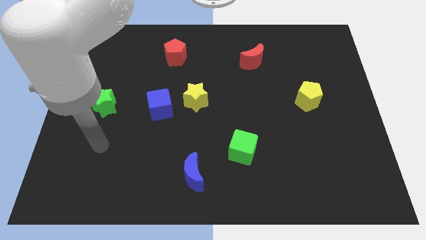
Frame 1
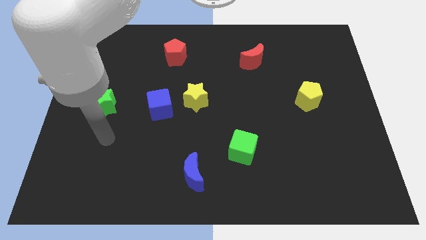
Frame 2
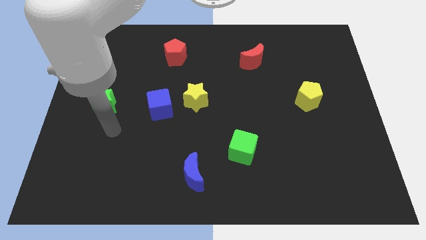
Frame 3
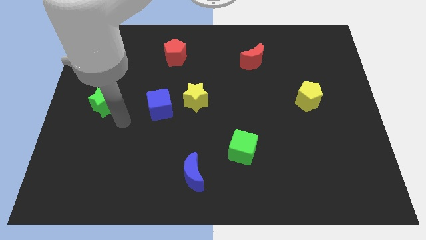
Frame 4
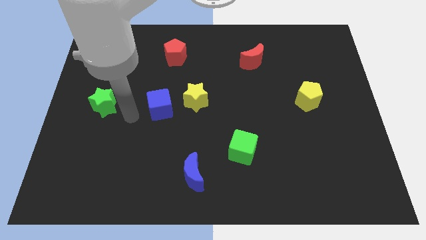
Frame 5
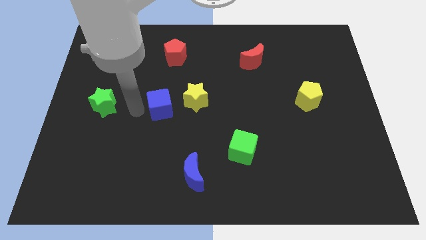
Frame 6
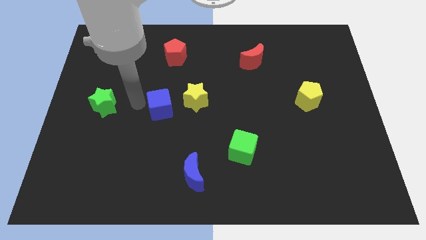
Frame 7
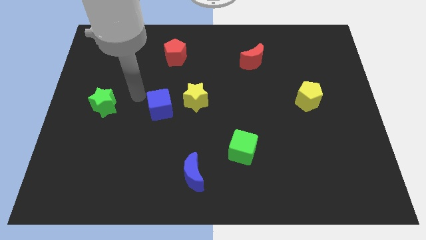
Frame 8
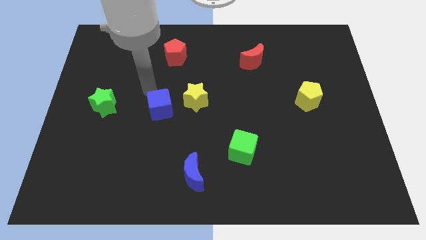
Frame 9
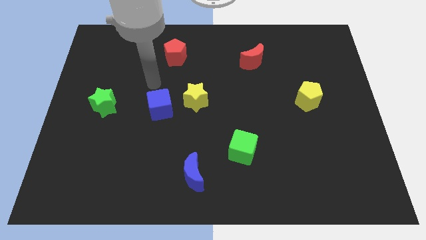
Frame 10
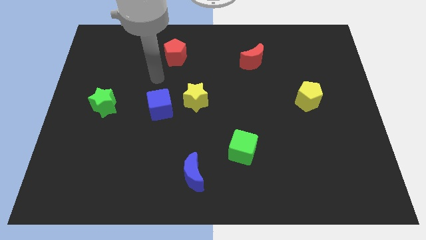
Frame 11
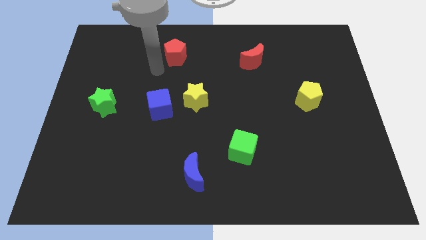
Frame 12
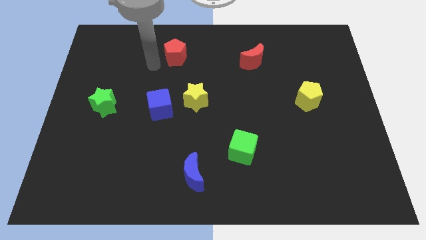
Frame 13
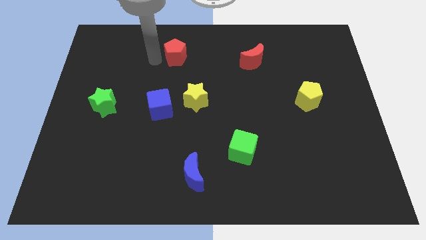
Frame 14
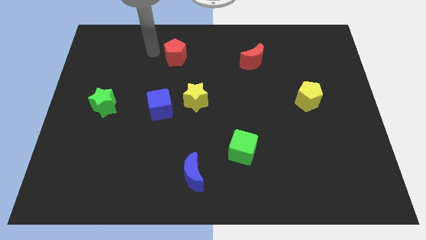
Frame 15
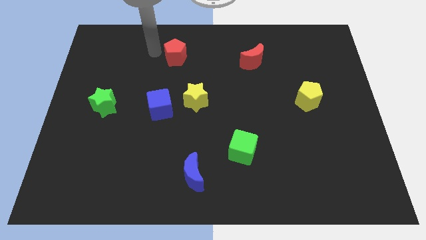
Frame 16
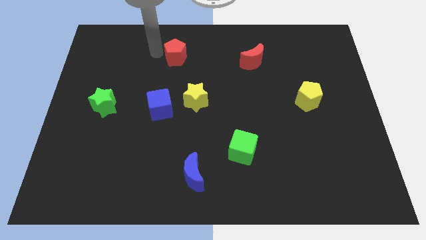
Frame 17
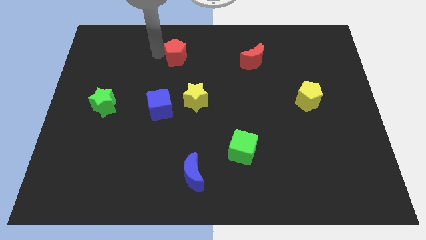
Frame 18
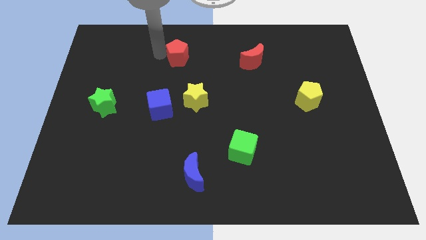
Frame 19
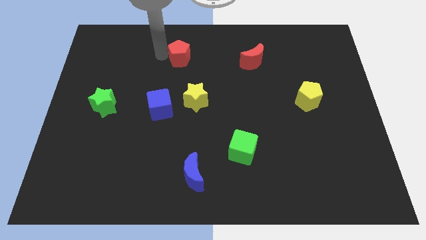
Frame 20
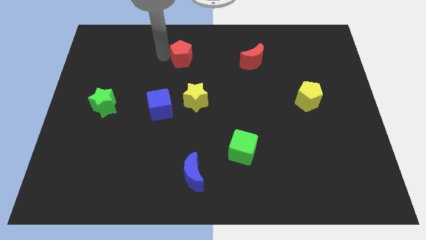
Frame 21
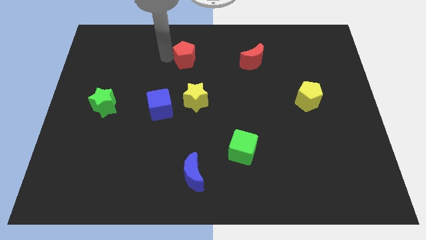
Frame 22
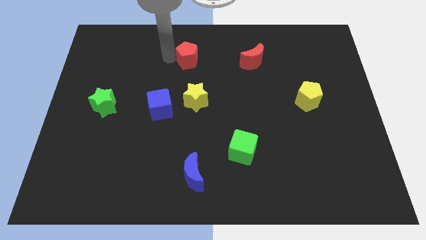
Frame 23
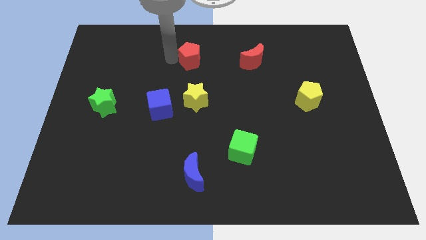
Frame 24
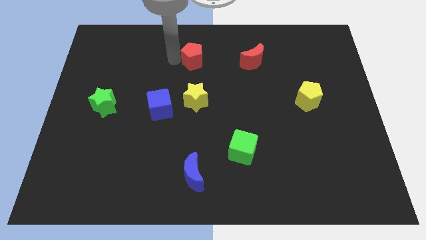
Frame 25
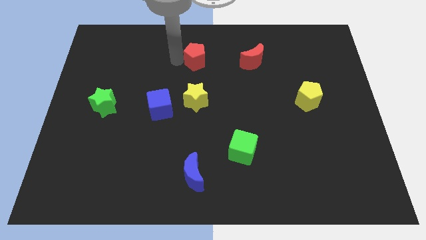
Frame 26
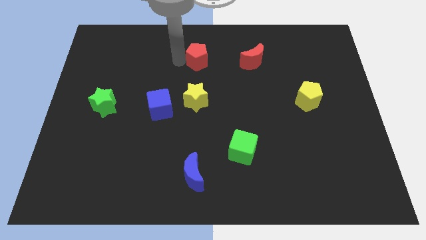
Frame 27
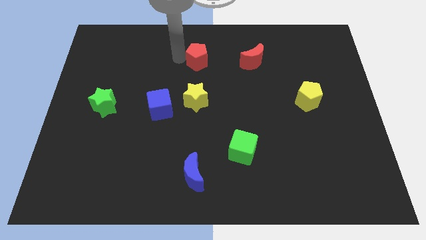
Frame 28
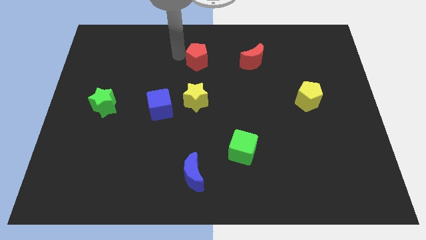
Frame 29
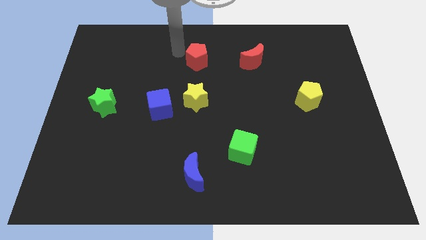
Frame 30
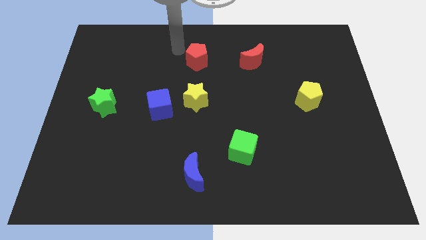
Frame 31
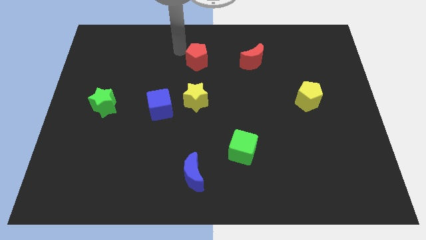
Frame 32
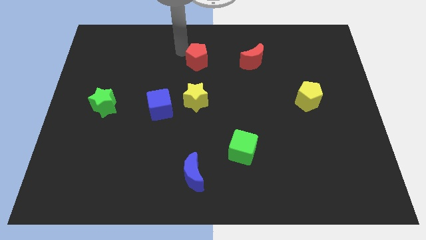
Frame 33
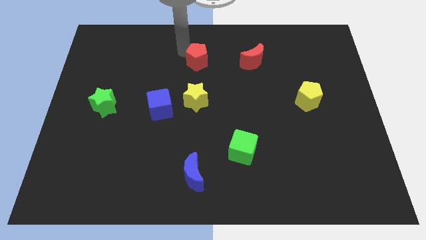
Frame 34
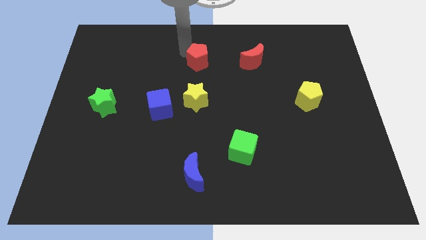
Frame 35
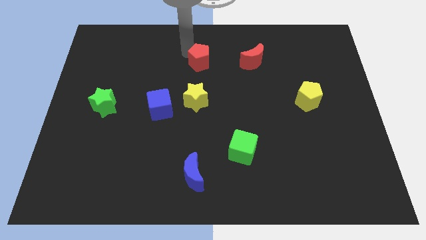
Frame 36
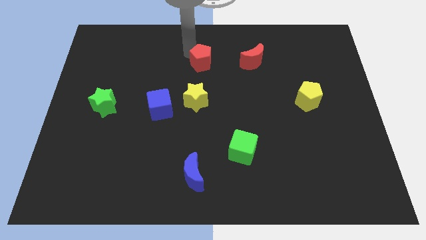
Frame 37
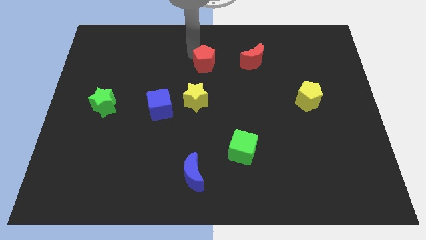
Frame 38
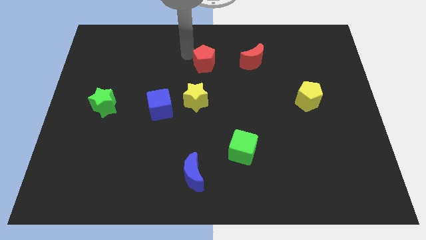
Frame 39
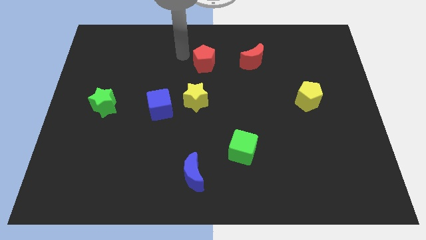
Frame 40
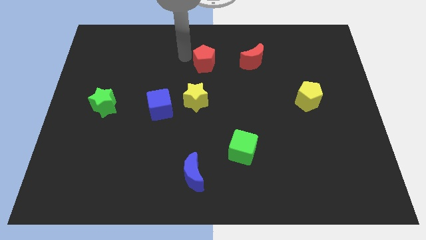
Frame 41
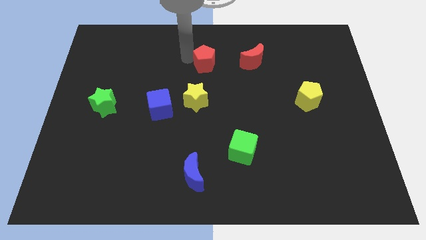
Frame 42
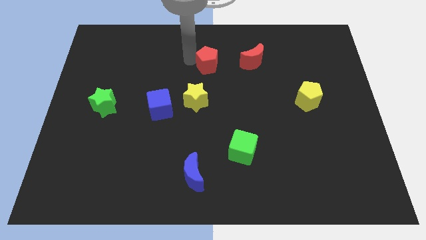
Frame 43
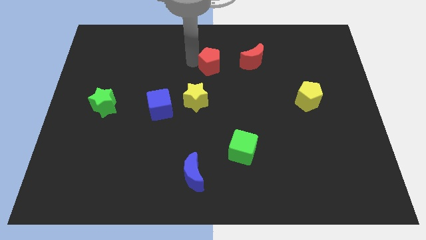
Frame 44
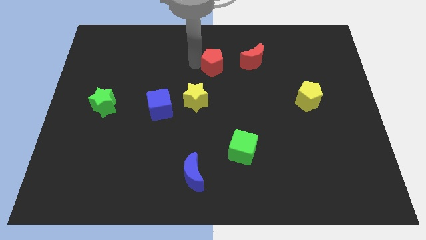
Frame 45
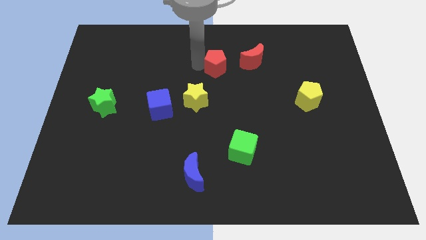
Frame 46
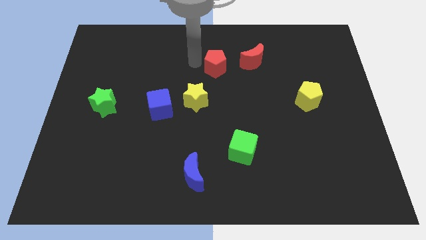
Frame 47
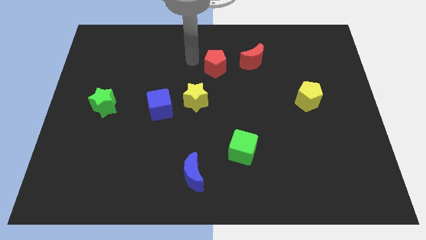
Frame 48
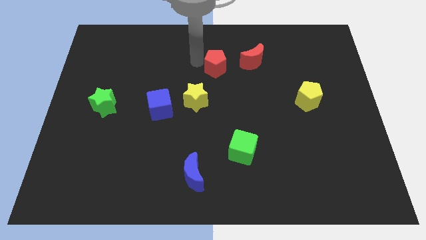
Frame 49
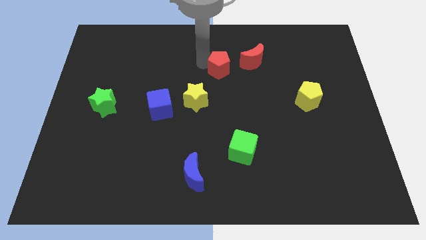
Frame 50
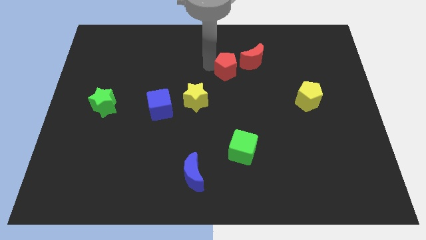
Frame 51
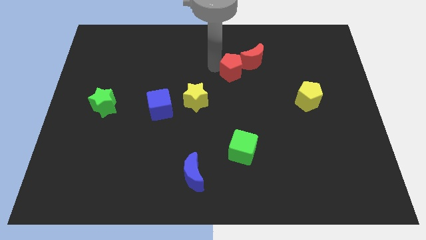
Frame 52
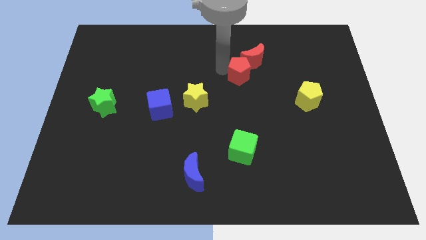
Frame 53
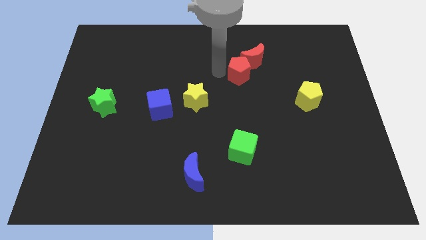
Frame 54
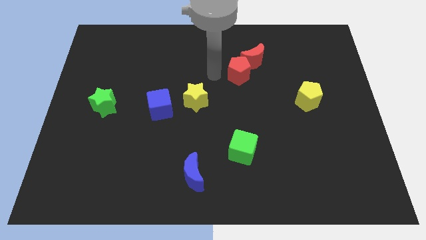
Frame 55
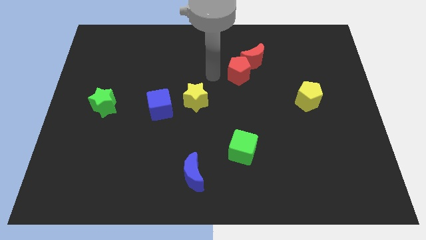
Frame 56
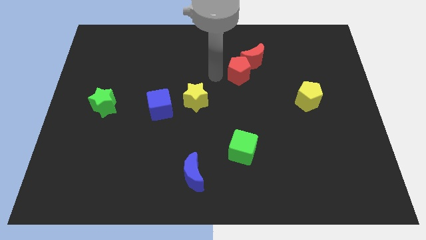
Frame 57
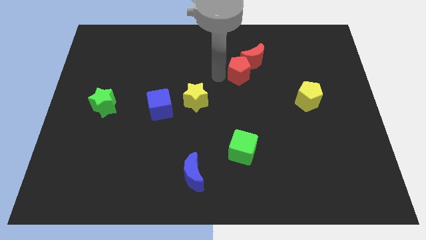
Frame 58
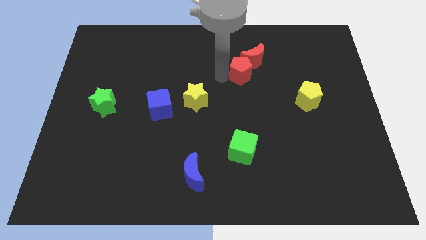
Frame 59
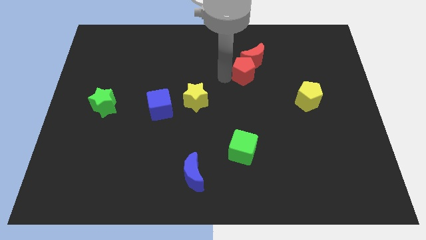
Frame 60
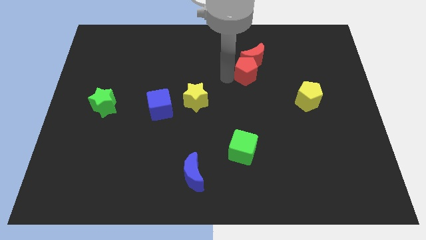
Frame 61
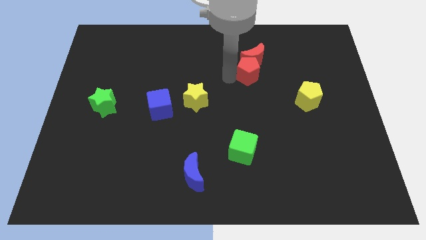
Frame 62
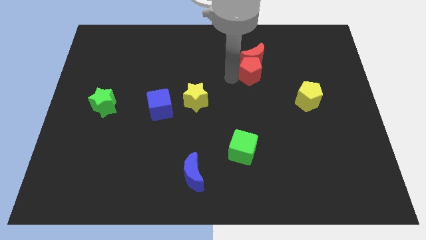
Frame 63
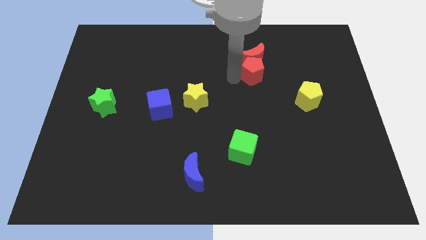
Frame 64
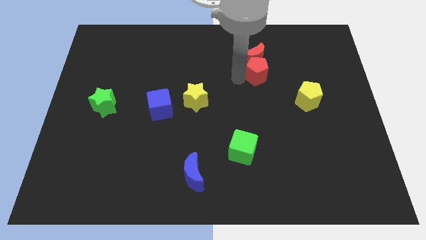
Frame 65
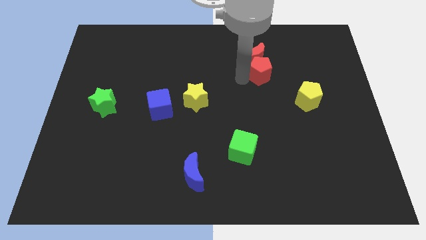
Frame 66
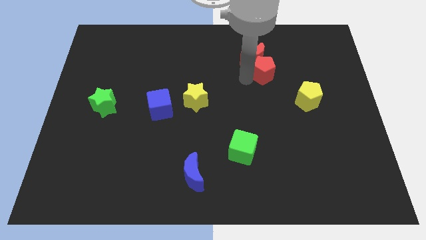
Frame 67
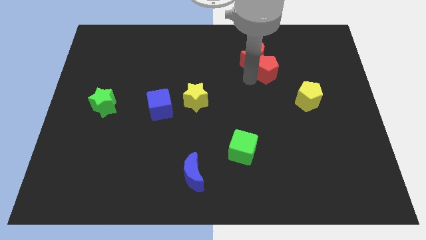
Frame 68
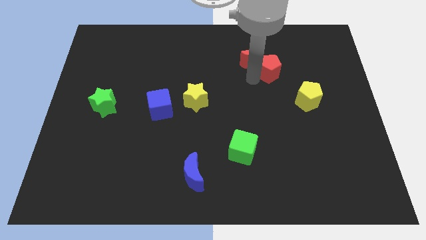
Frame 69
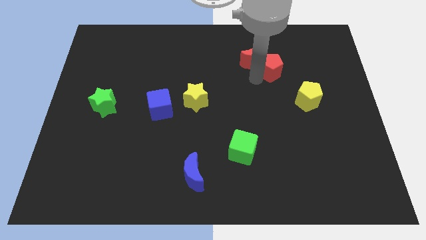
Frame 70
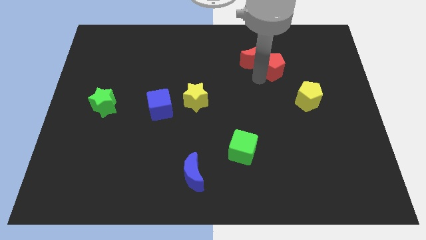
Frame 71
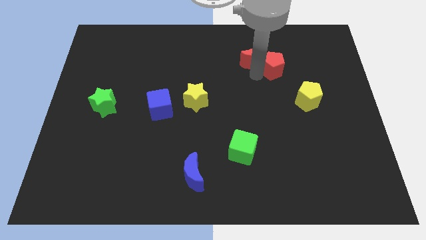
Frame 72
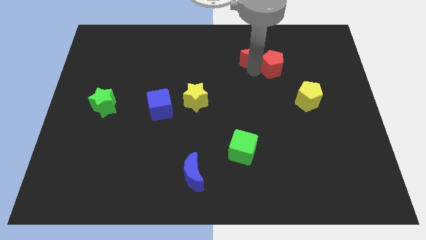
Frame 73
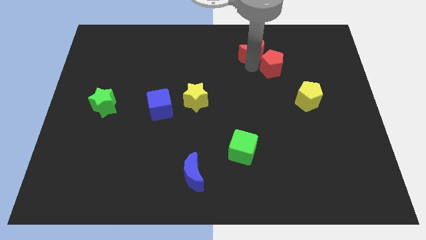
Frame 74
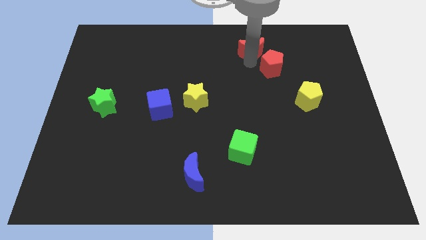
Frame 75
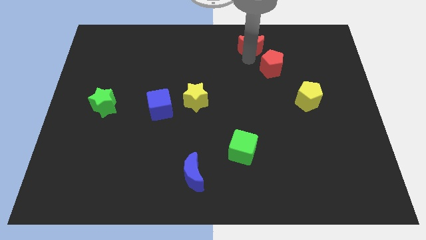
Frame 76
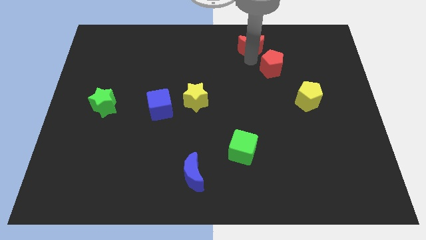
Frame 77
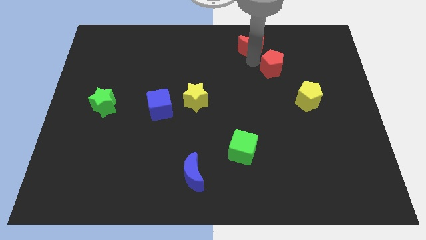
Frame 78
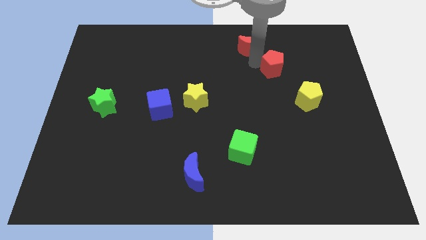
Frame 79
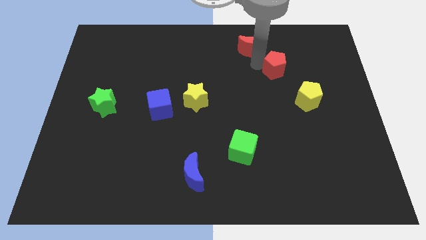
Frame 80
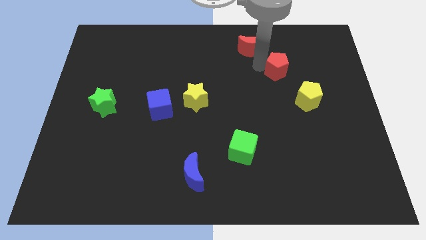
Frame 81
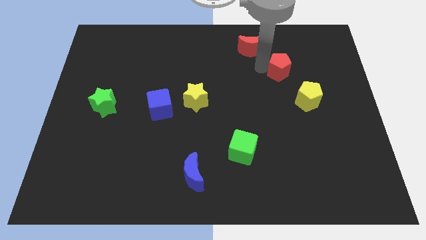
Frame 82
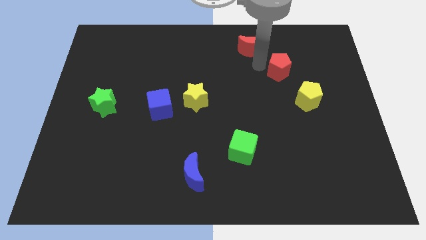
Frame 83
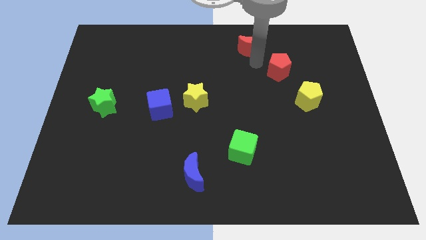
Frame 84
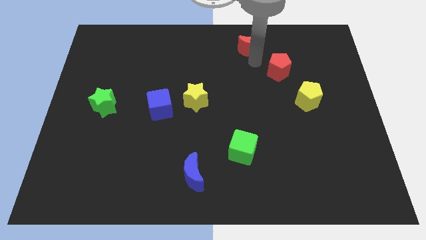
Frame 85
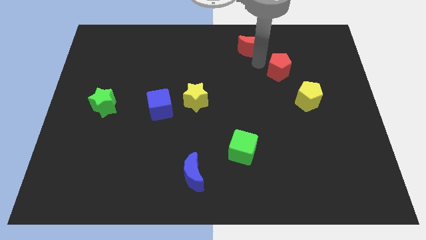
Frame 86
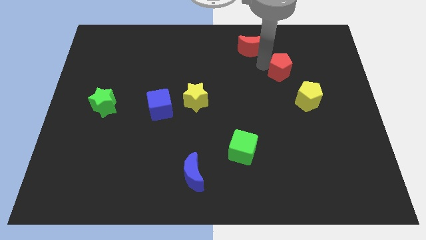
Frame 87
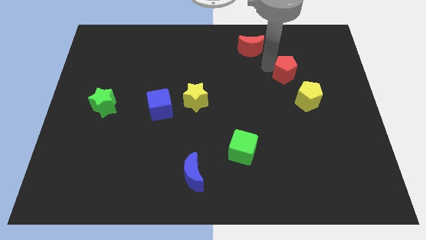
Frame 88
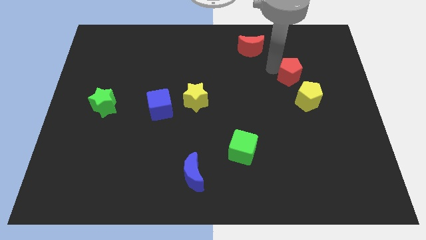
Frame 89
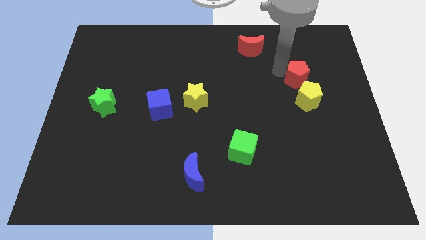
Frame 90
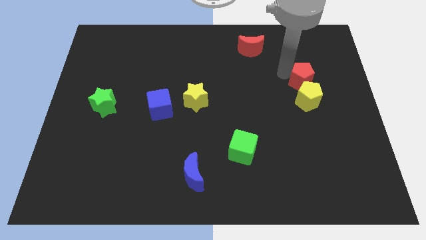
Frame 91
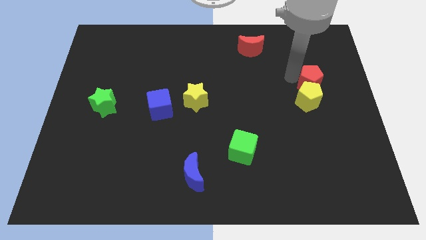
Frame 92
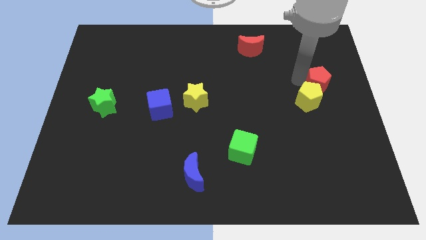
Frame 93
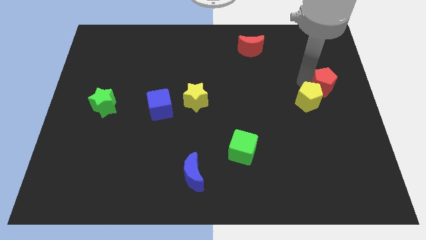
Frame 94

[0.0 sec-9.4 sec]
move the red pentagon to the center right
